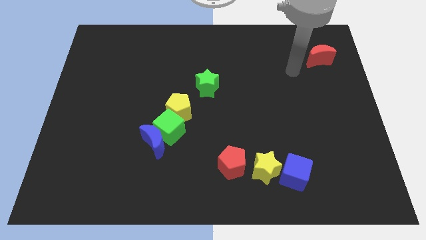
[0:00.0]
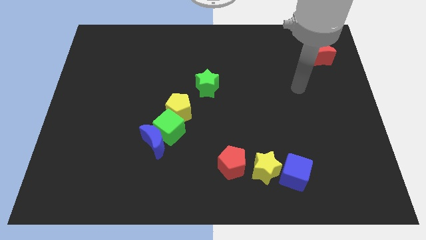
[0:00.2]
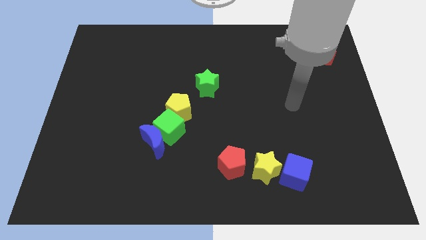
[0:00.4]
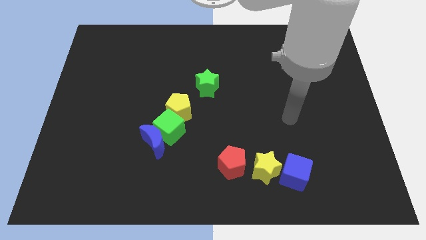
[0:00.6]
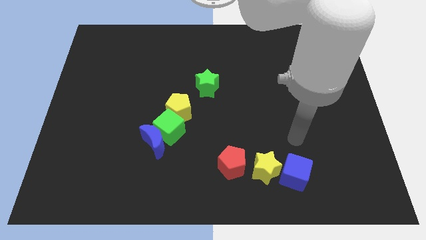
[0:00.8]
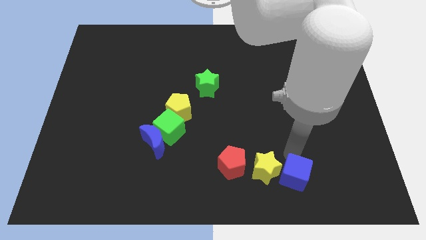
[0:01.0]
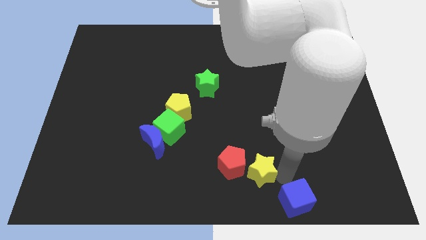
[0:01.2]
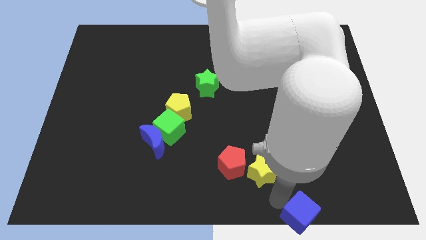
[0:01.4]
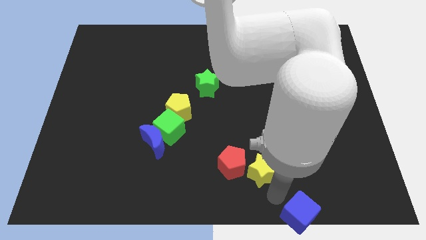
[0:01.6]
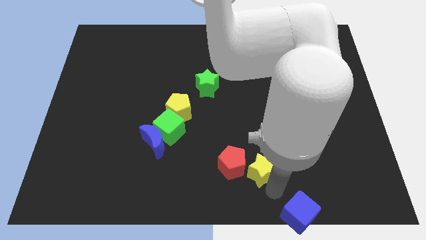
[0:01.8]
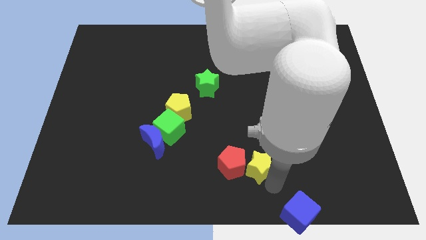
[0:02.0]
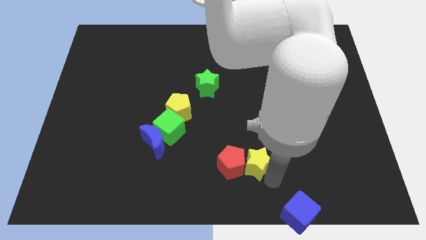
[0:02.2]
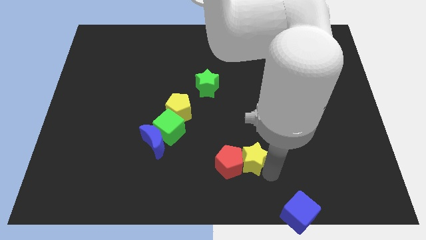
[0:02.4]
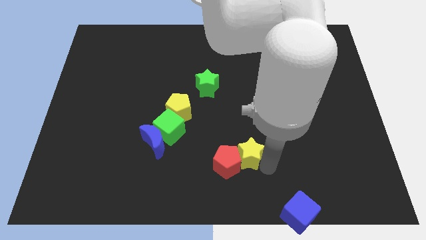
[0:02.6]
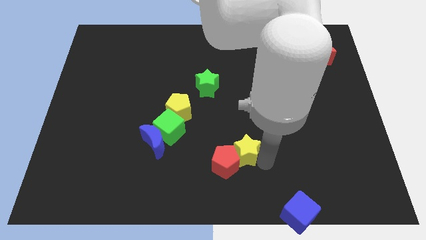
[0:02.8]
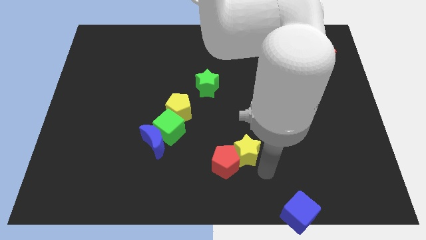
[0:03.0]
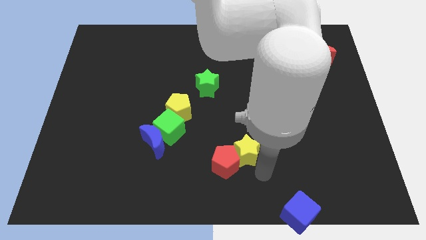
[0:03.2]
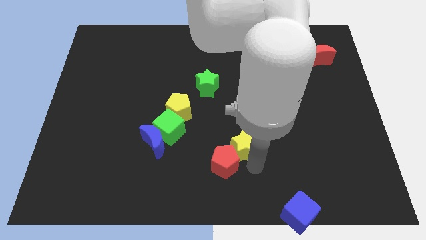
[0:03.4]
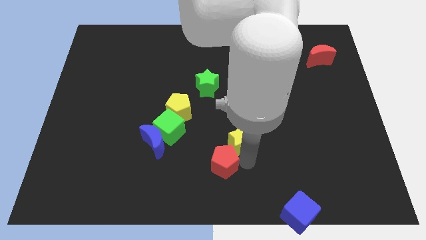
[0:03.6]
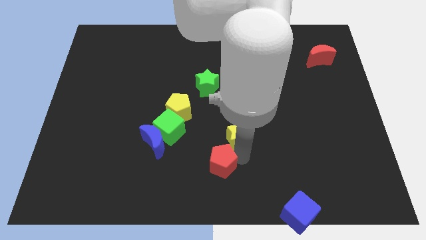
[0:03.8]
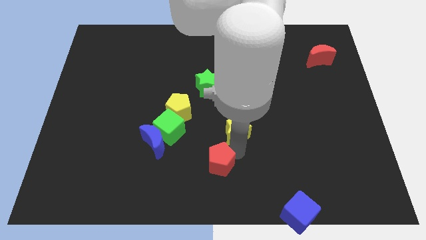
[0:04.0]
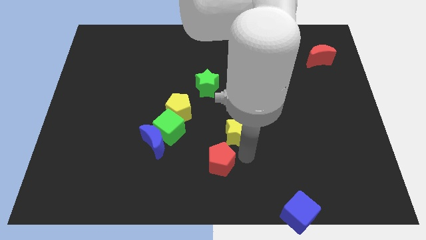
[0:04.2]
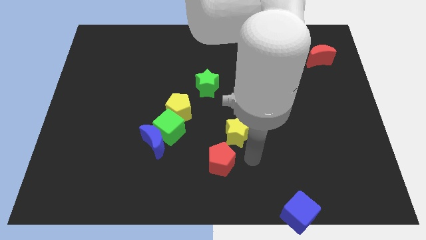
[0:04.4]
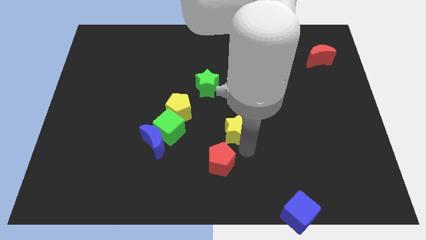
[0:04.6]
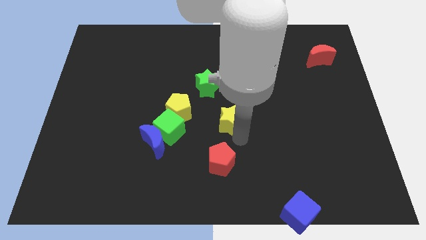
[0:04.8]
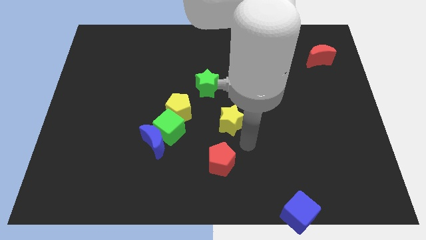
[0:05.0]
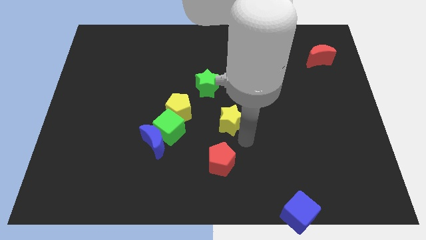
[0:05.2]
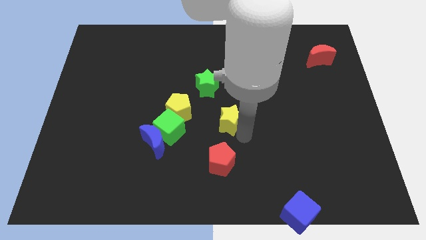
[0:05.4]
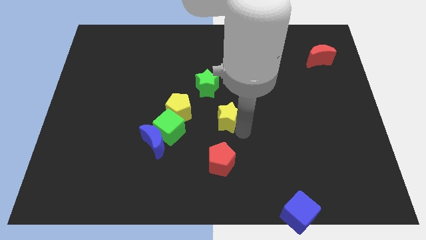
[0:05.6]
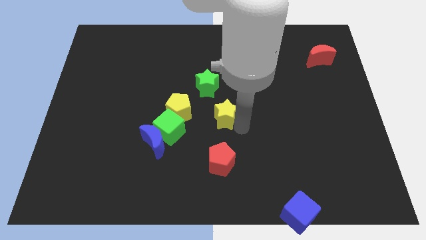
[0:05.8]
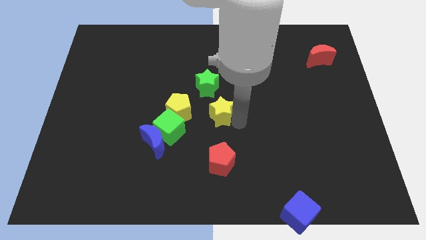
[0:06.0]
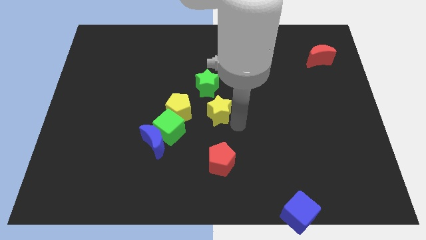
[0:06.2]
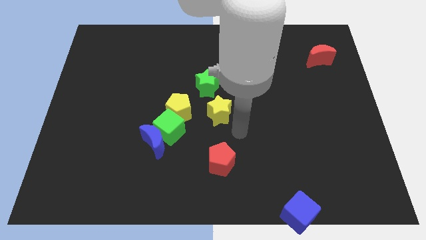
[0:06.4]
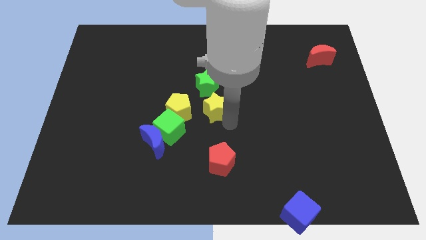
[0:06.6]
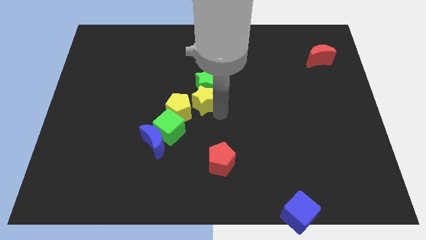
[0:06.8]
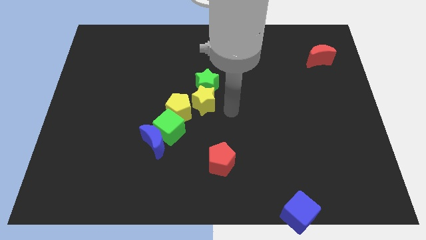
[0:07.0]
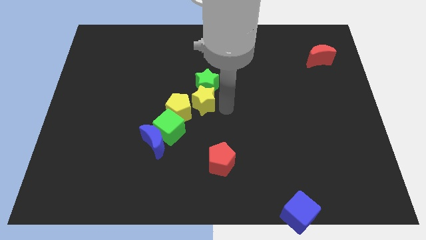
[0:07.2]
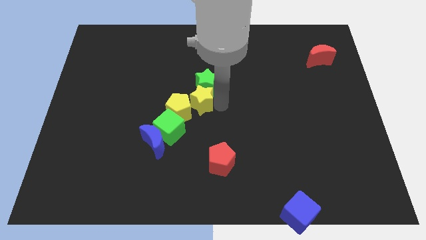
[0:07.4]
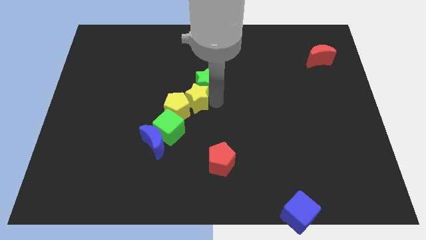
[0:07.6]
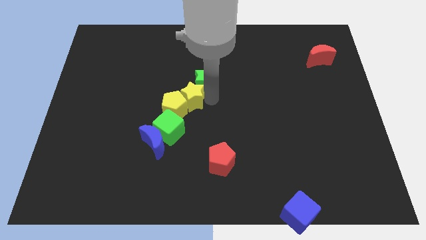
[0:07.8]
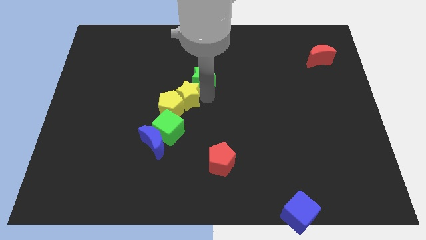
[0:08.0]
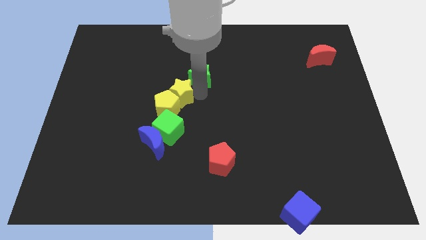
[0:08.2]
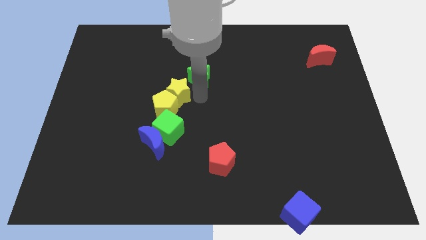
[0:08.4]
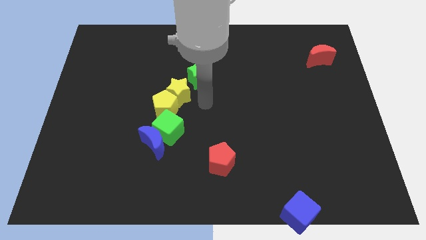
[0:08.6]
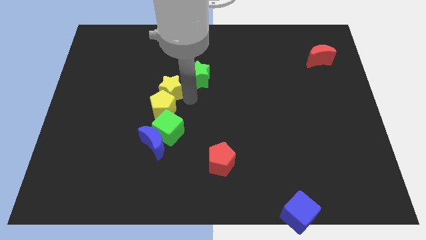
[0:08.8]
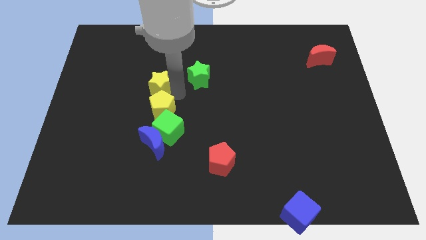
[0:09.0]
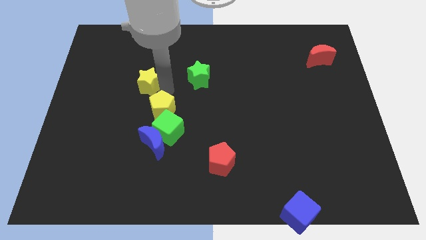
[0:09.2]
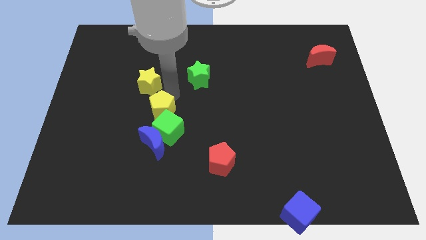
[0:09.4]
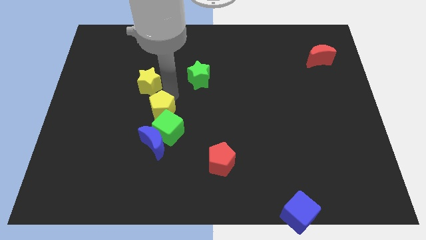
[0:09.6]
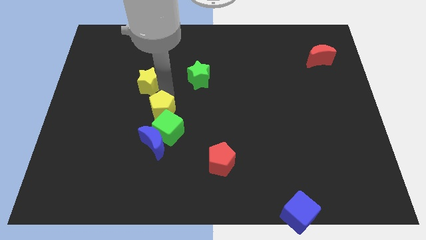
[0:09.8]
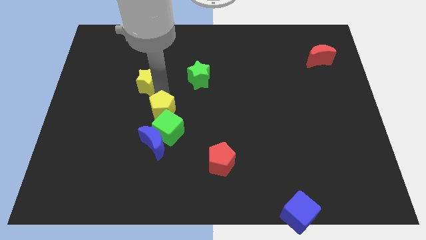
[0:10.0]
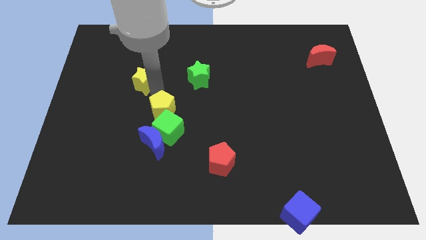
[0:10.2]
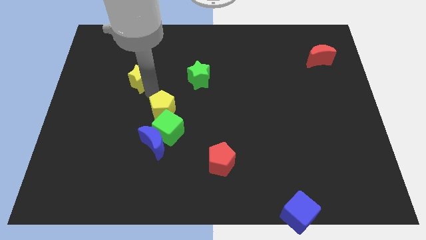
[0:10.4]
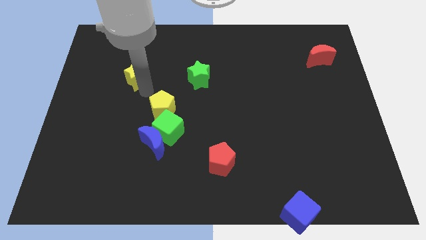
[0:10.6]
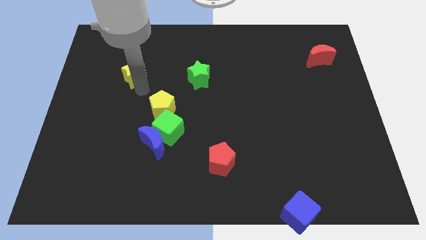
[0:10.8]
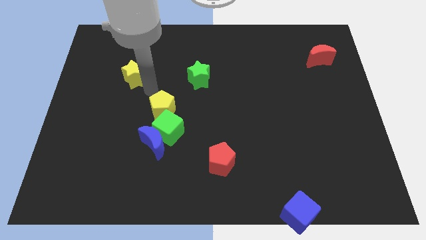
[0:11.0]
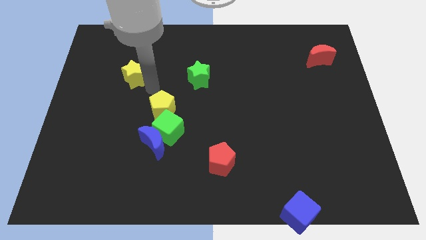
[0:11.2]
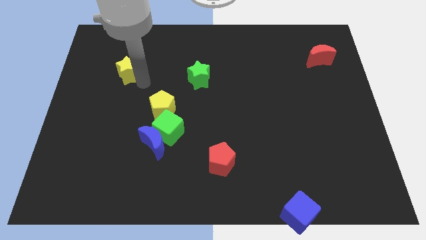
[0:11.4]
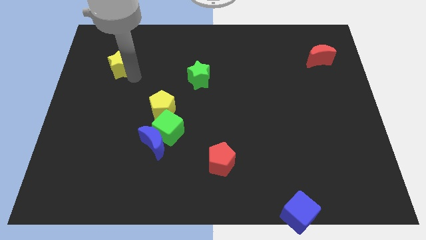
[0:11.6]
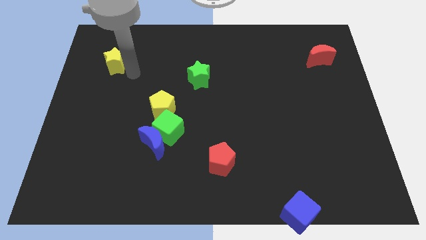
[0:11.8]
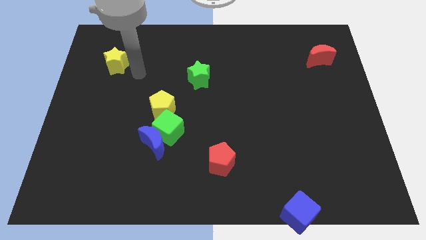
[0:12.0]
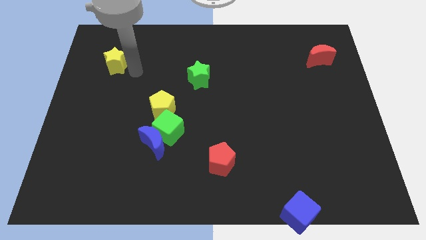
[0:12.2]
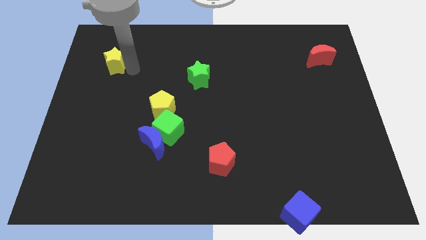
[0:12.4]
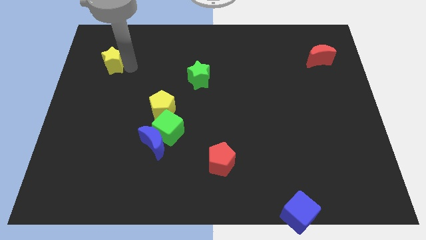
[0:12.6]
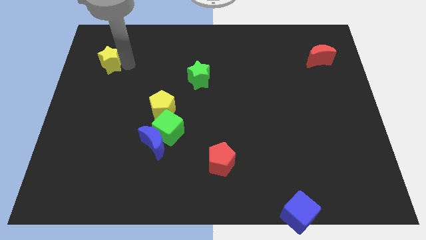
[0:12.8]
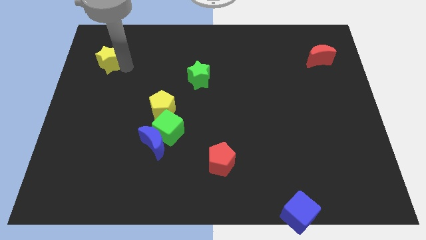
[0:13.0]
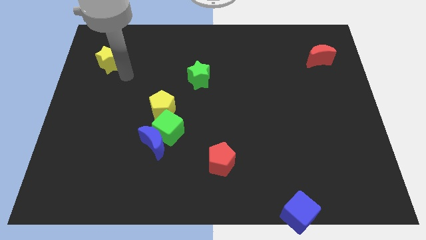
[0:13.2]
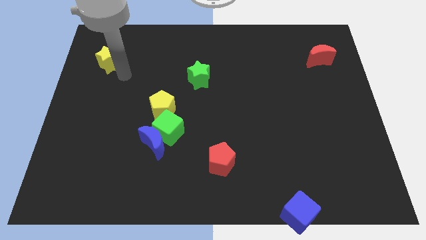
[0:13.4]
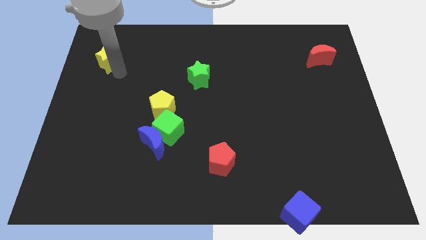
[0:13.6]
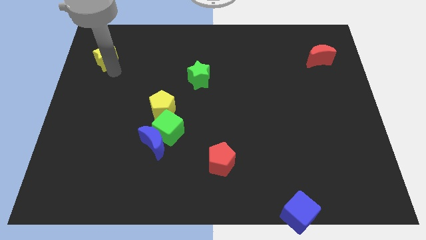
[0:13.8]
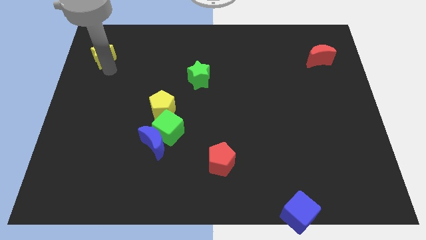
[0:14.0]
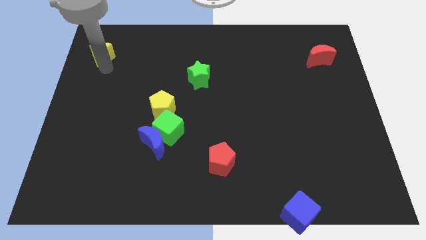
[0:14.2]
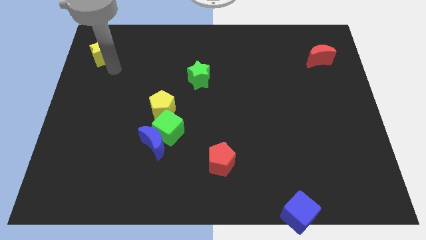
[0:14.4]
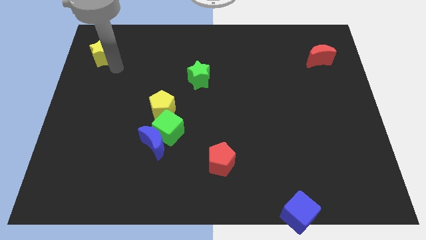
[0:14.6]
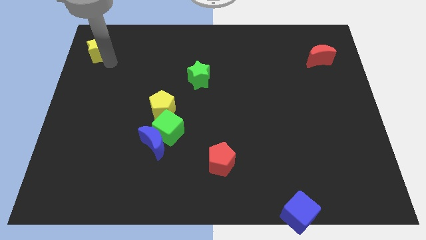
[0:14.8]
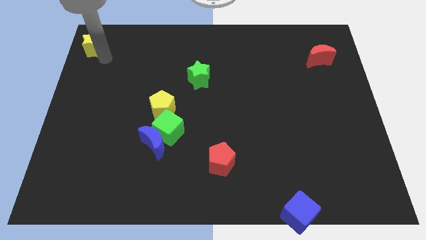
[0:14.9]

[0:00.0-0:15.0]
move the yellow star to the upper left corner
